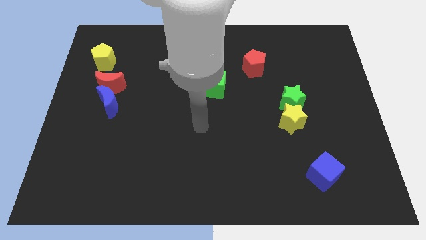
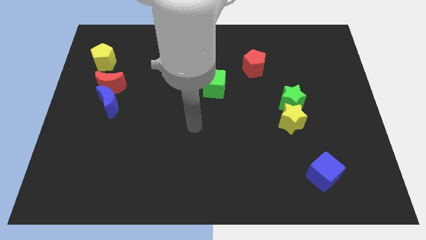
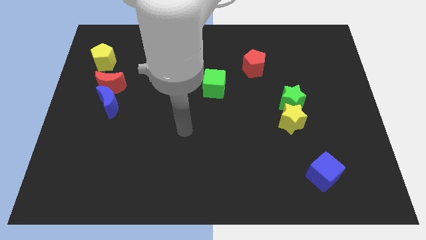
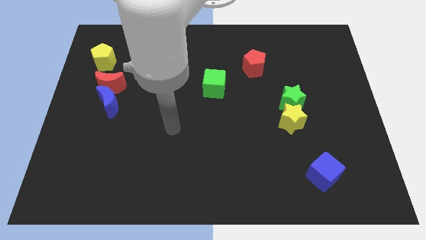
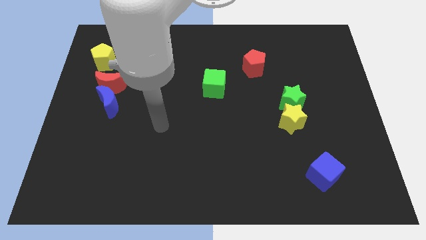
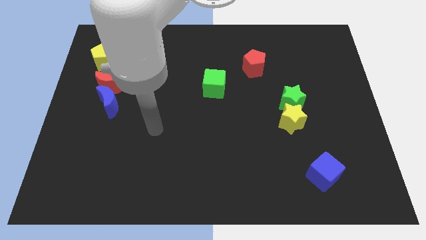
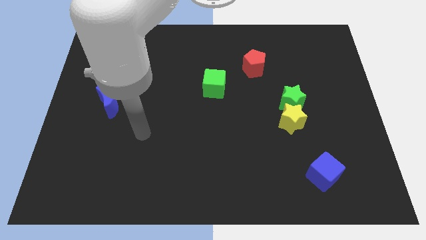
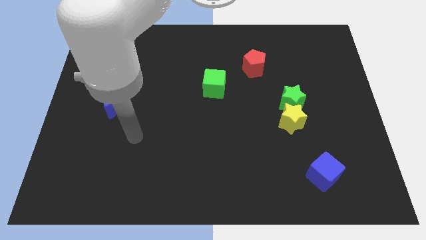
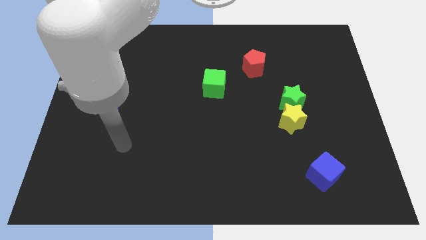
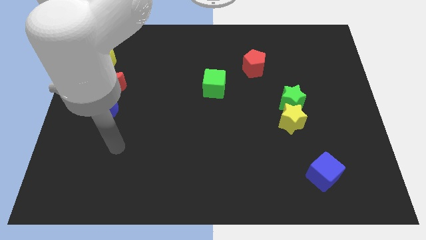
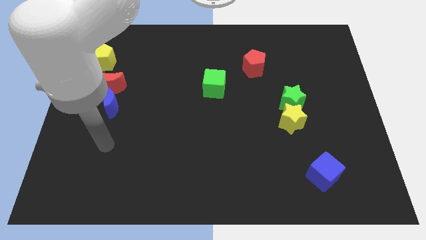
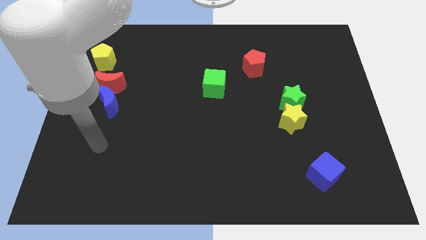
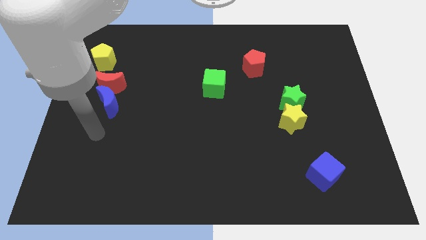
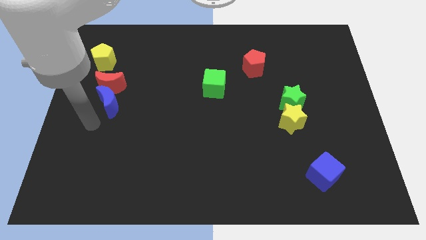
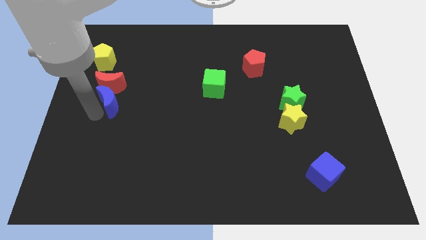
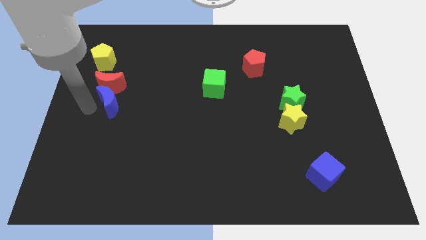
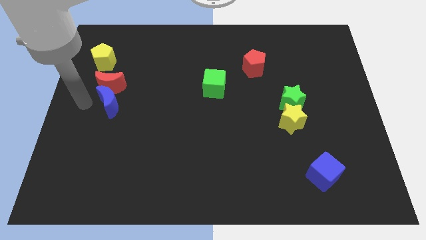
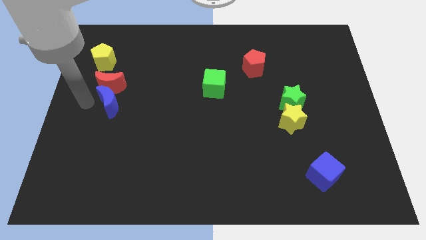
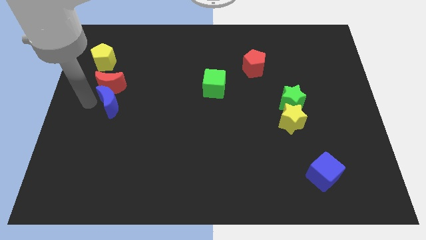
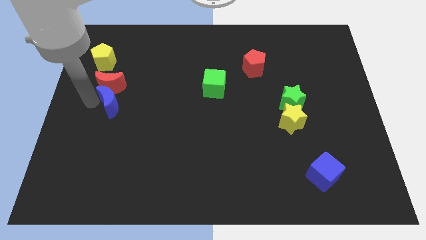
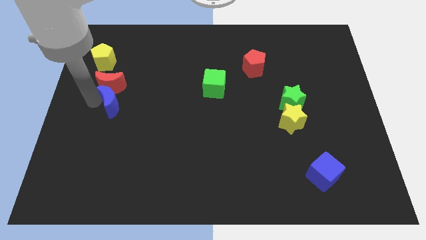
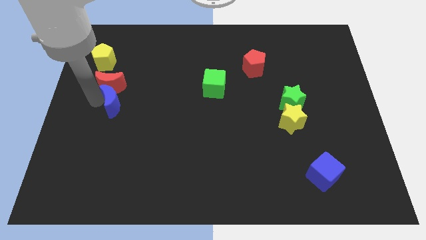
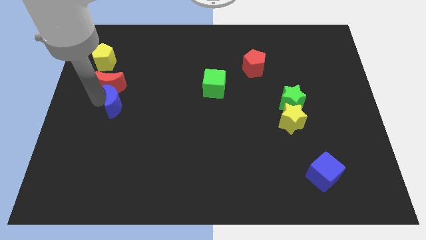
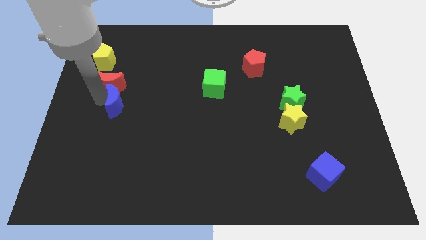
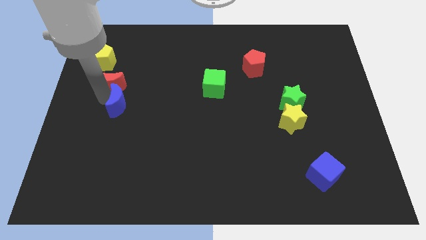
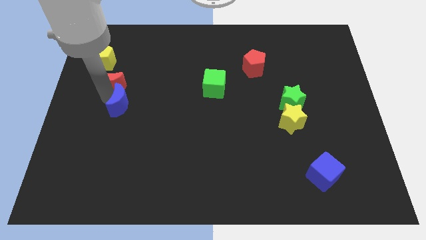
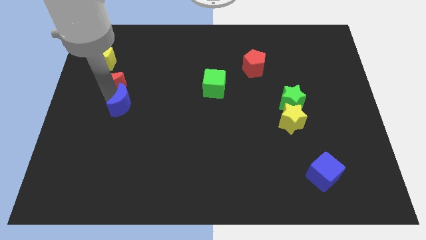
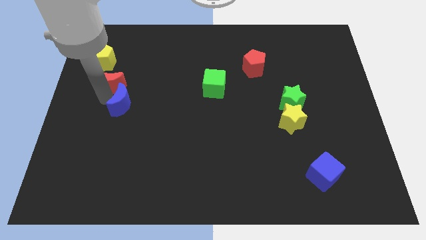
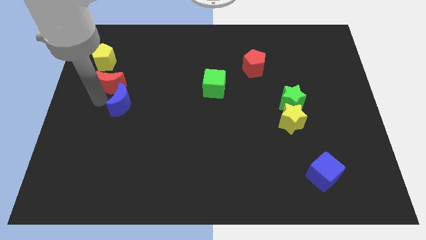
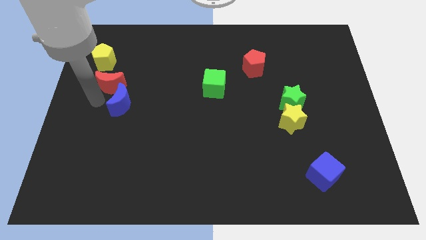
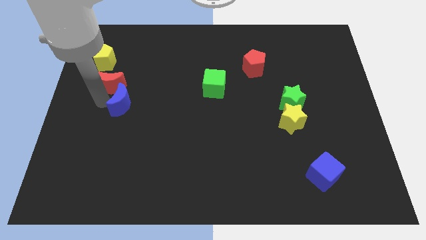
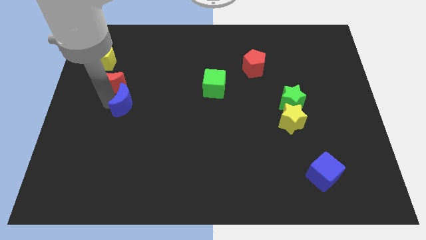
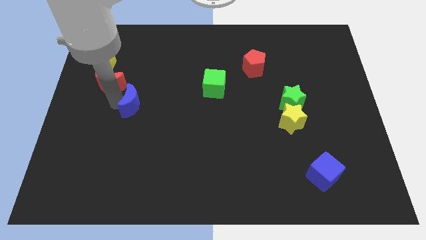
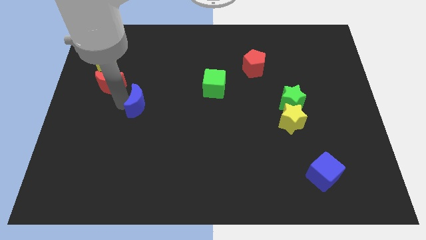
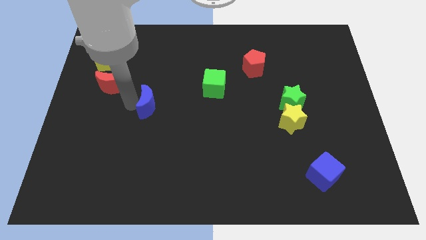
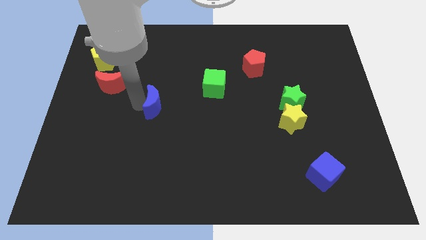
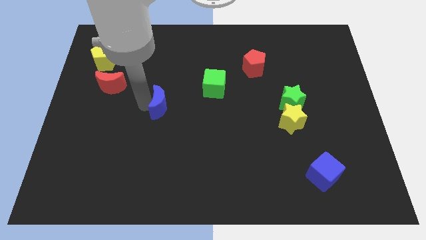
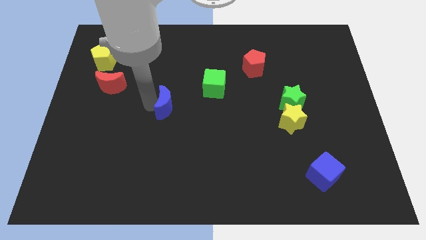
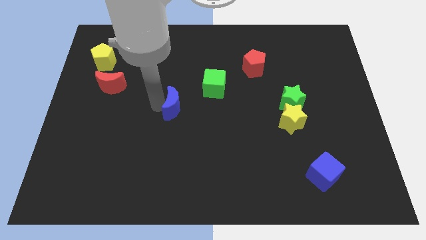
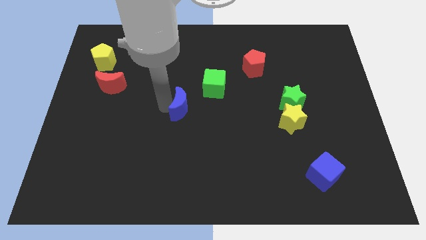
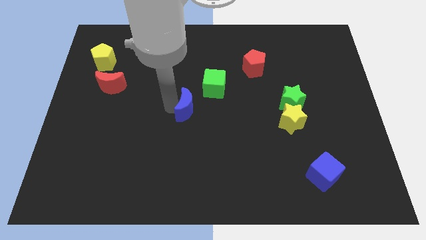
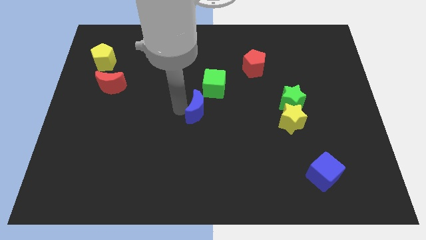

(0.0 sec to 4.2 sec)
push the blue moon right

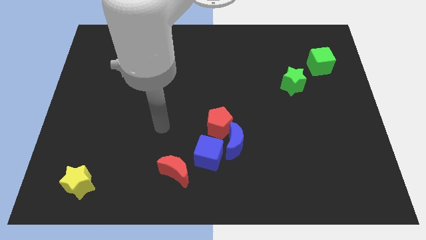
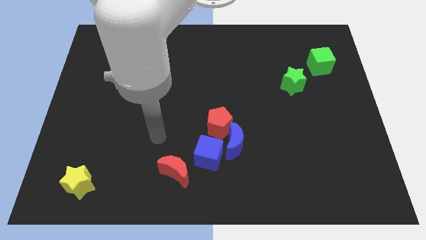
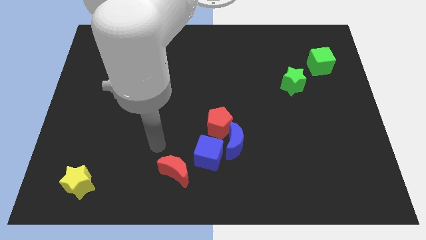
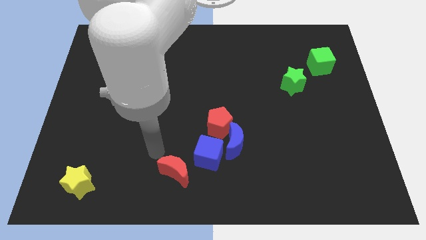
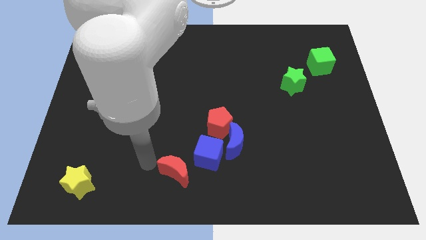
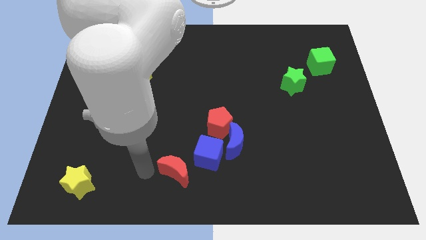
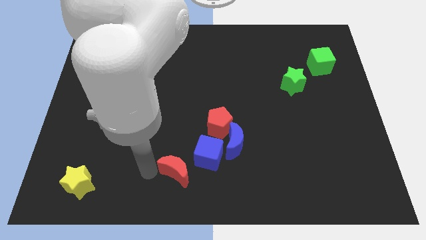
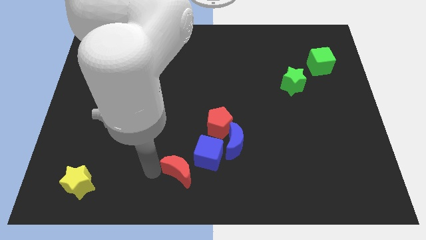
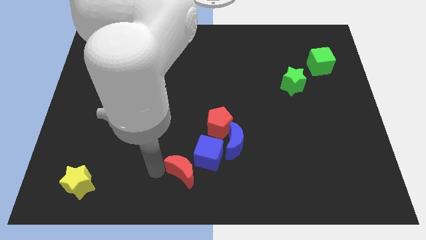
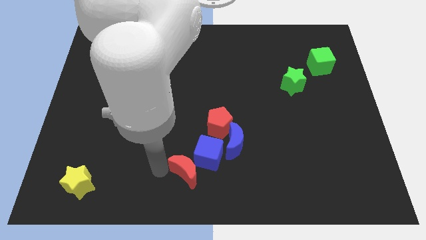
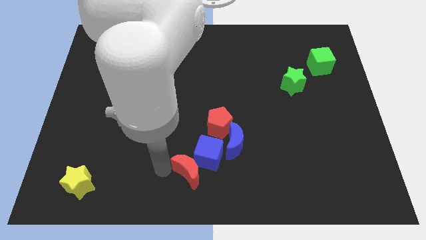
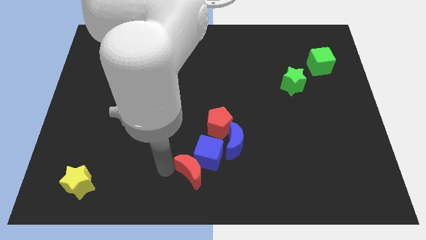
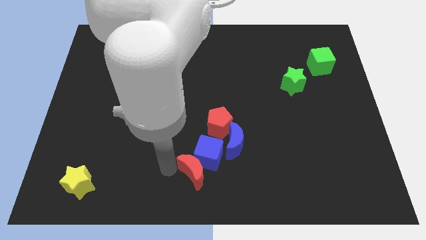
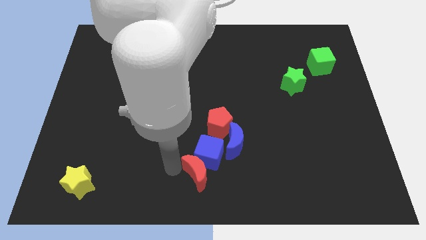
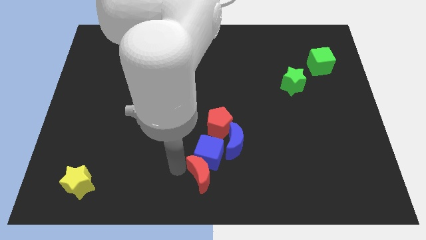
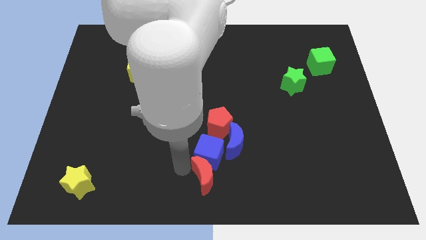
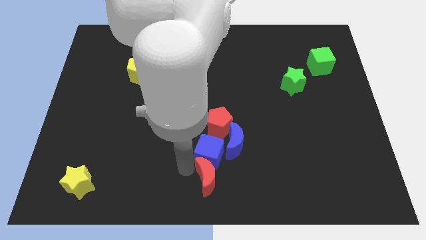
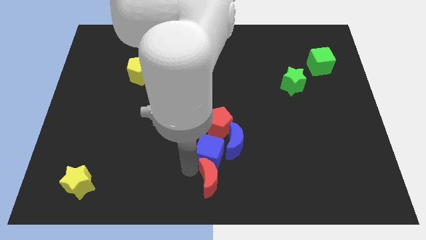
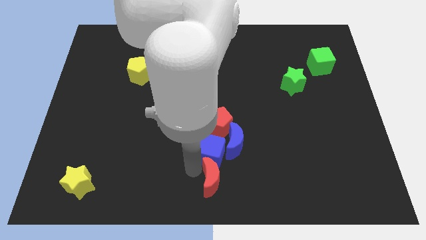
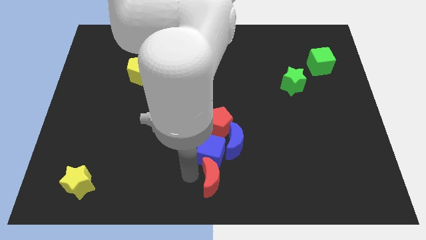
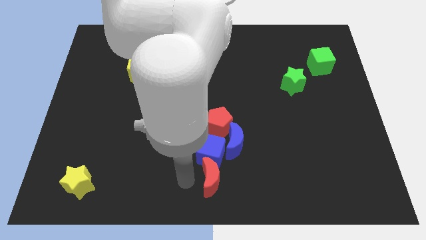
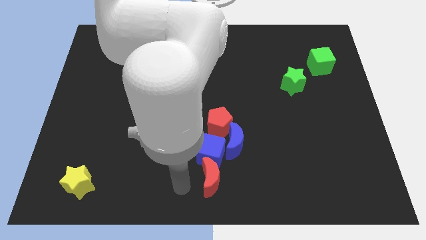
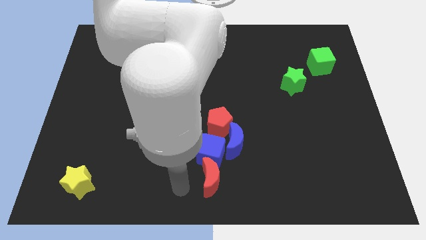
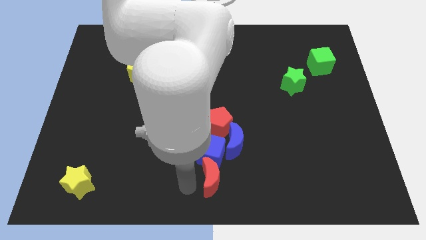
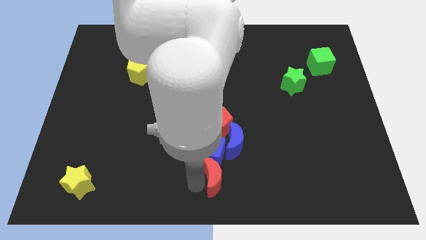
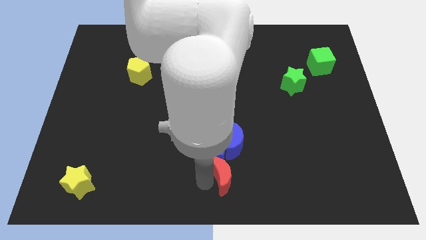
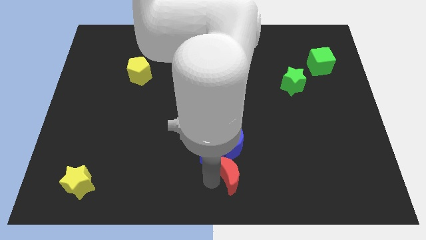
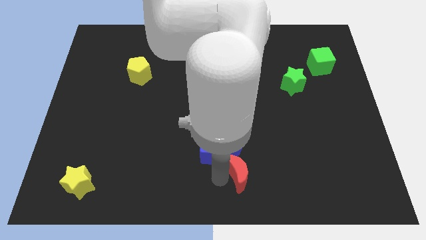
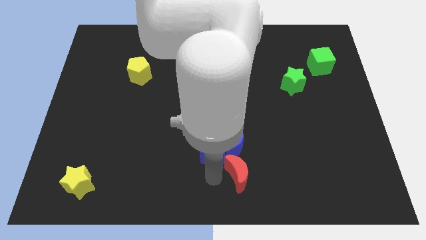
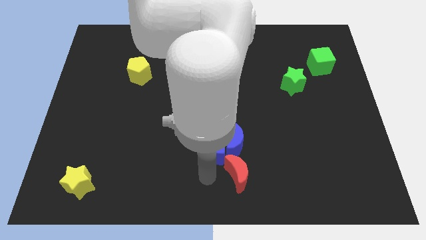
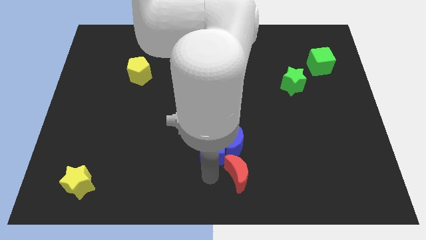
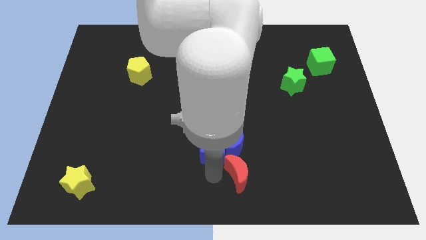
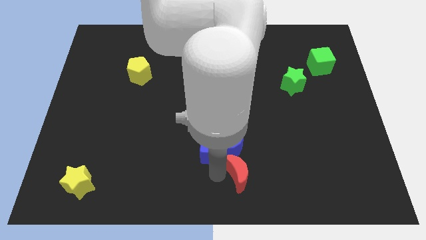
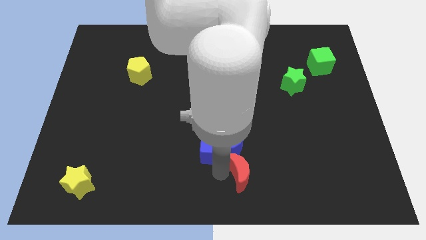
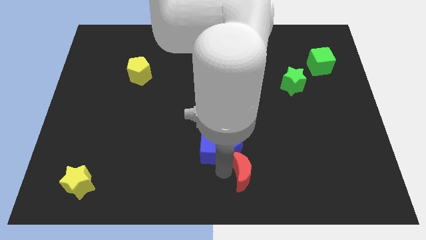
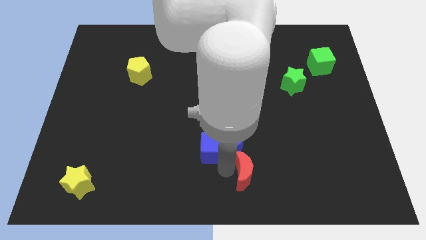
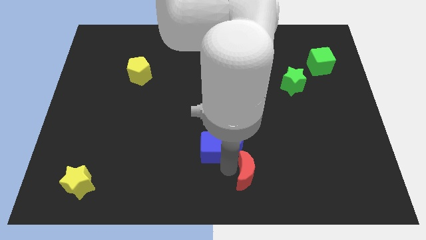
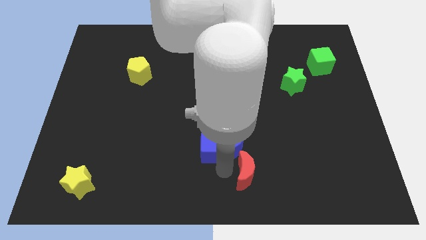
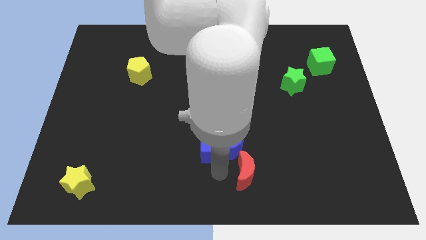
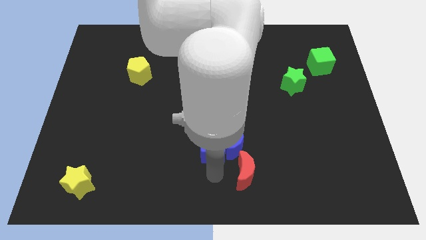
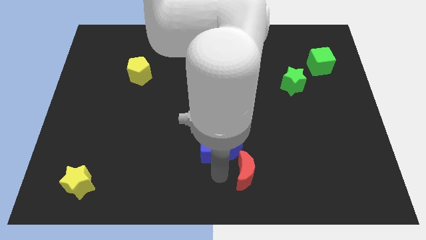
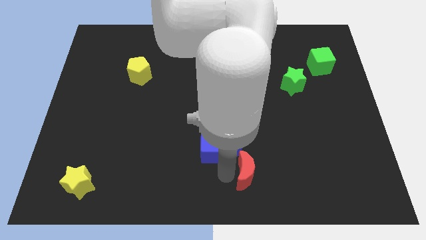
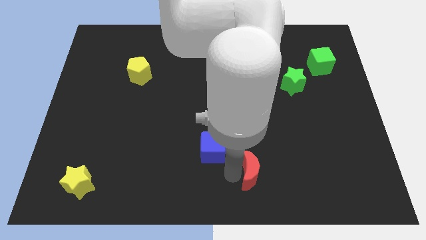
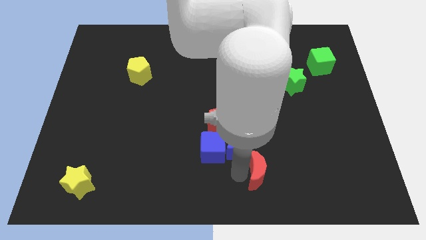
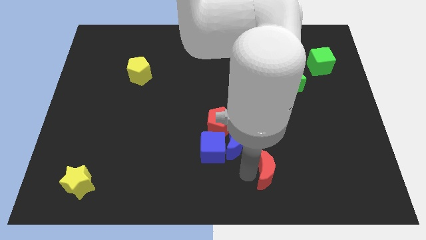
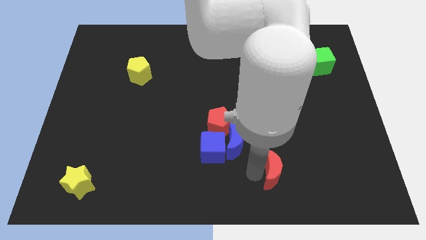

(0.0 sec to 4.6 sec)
move the red moon right
